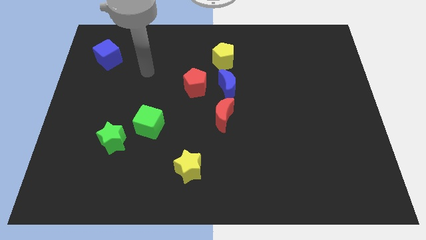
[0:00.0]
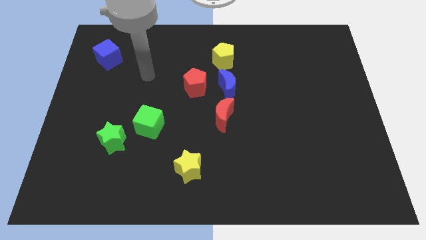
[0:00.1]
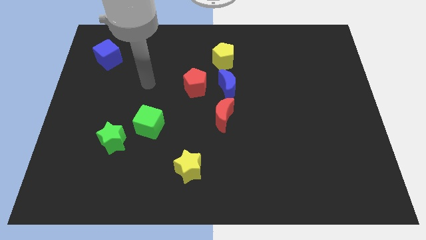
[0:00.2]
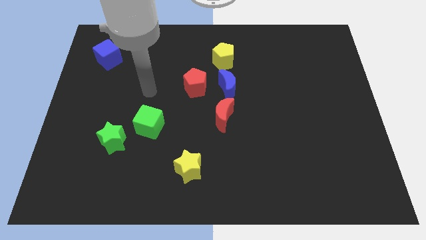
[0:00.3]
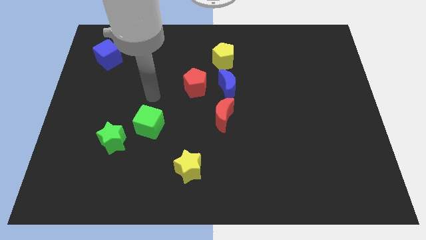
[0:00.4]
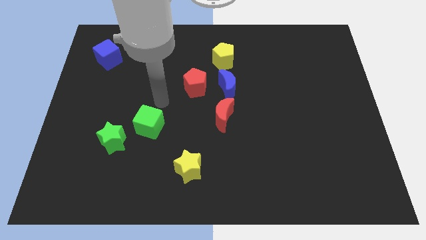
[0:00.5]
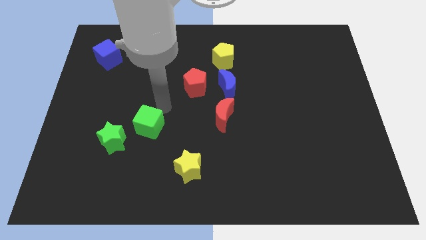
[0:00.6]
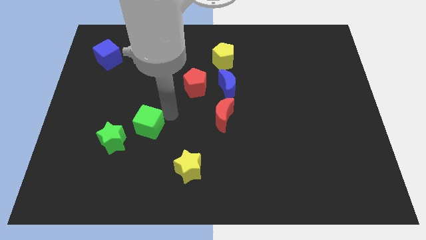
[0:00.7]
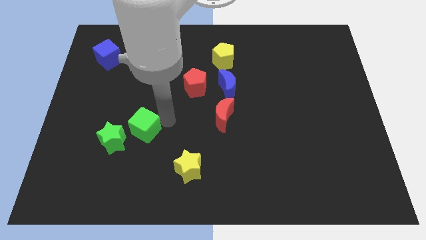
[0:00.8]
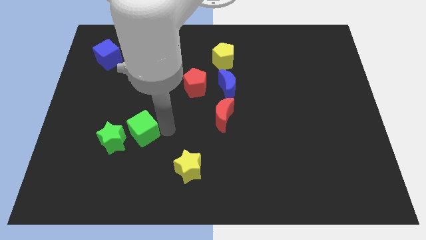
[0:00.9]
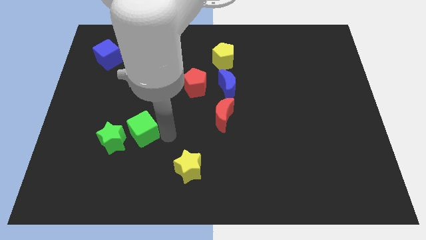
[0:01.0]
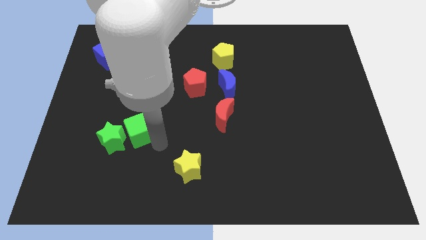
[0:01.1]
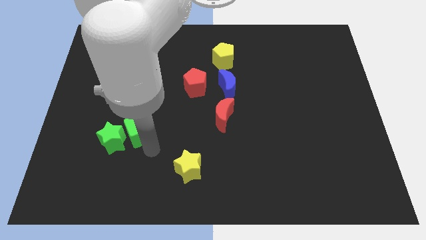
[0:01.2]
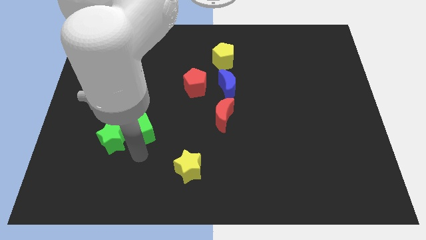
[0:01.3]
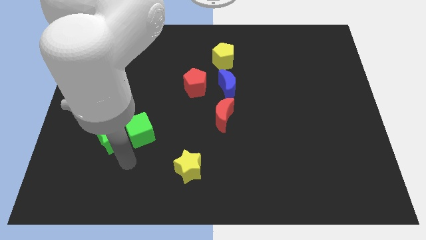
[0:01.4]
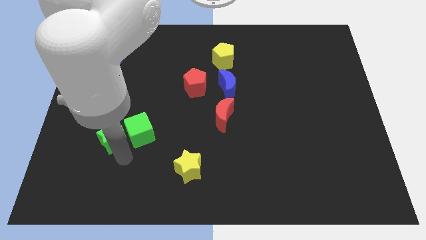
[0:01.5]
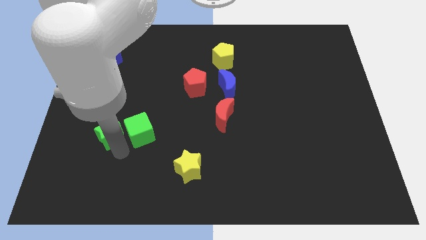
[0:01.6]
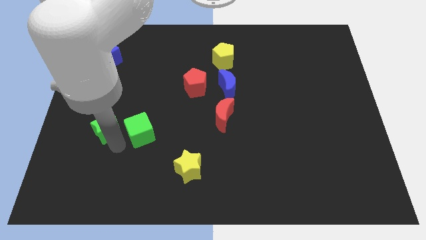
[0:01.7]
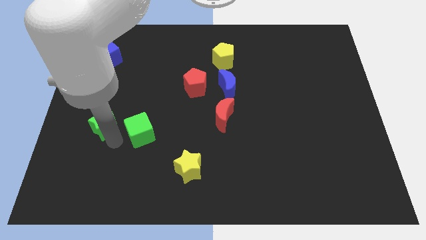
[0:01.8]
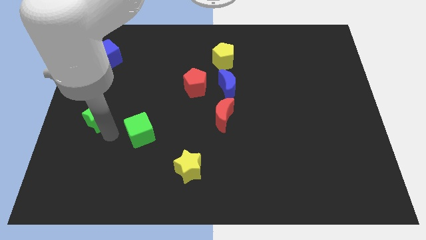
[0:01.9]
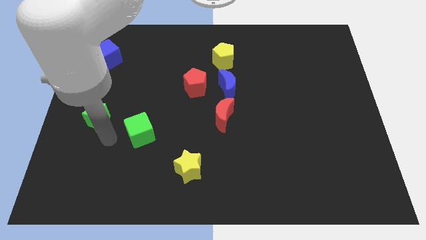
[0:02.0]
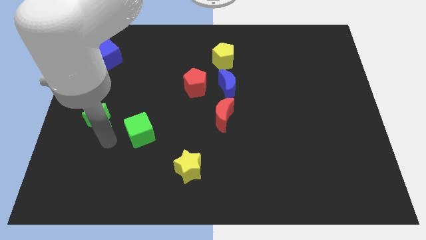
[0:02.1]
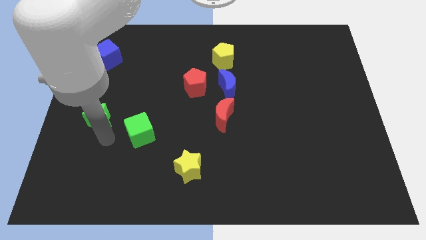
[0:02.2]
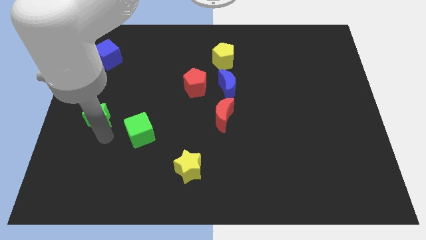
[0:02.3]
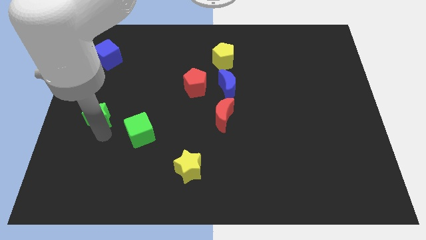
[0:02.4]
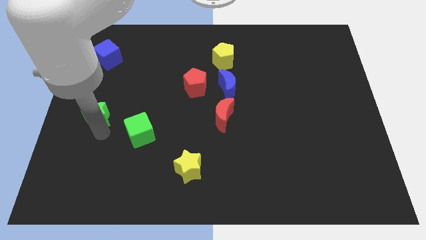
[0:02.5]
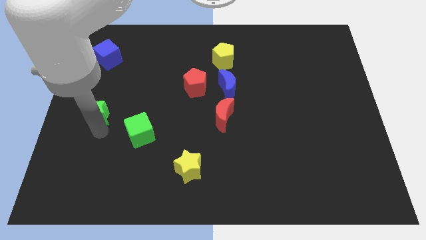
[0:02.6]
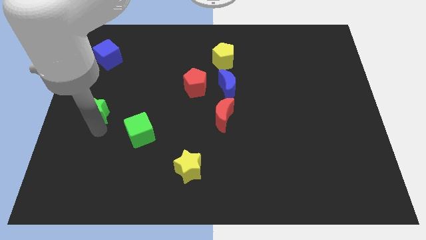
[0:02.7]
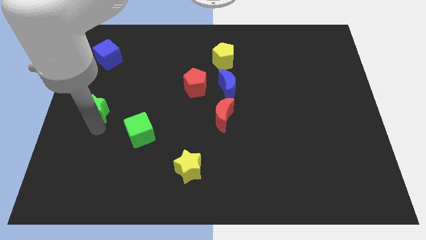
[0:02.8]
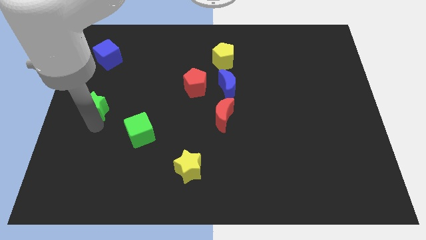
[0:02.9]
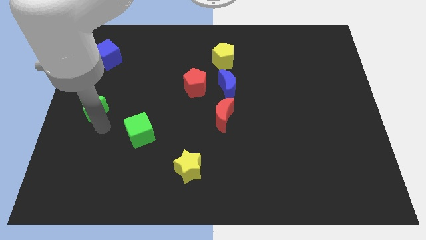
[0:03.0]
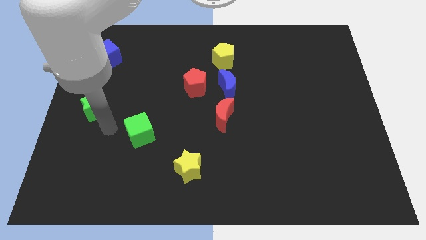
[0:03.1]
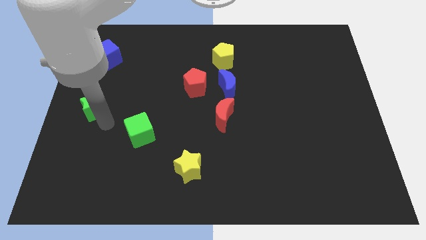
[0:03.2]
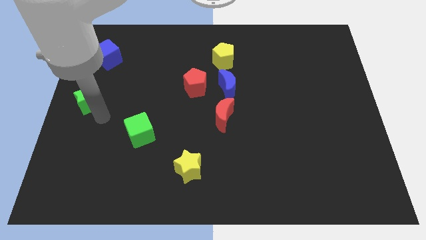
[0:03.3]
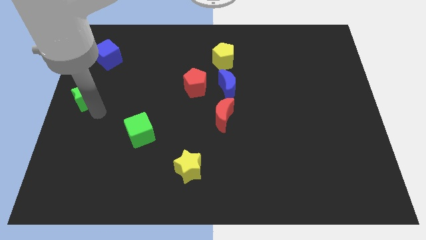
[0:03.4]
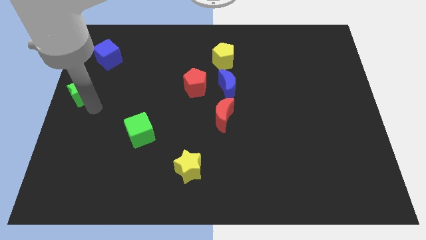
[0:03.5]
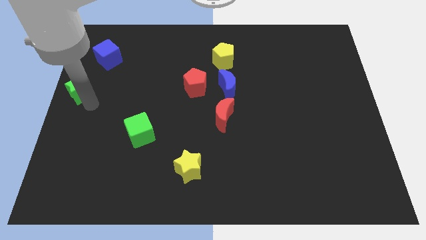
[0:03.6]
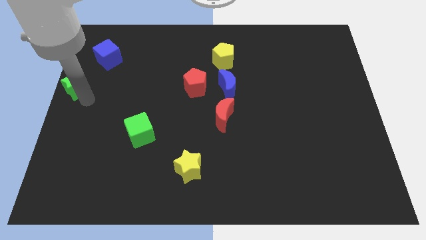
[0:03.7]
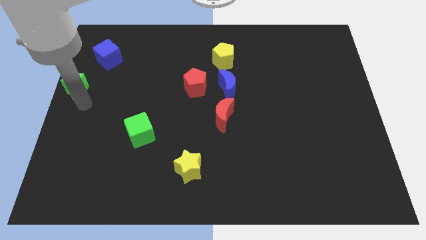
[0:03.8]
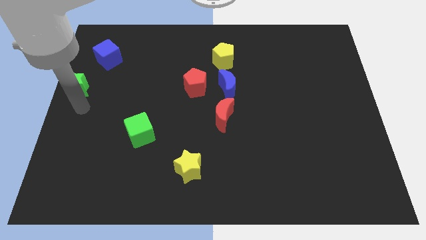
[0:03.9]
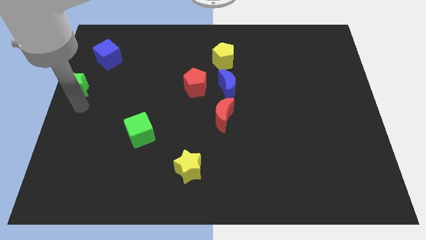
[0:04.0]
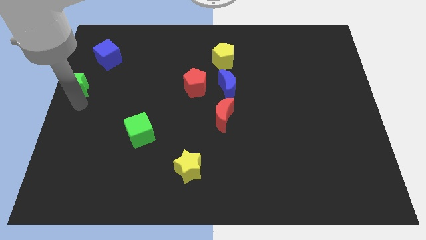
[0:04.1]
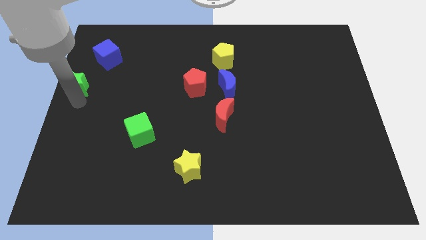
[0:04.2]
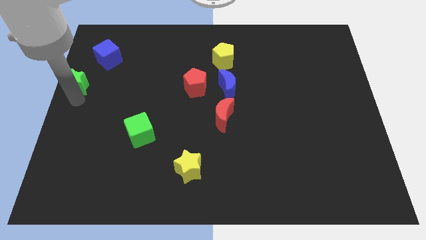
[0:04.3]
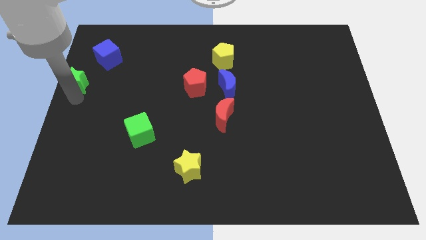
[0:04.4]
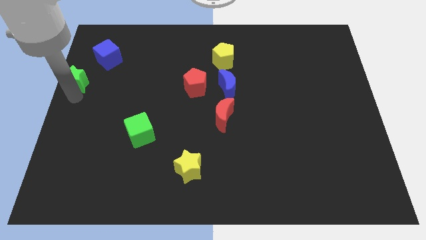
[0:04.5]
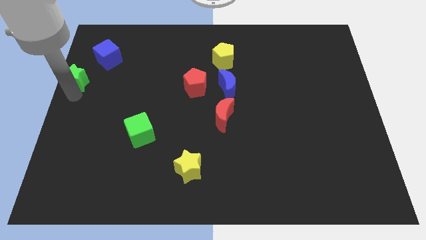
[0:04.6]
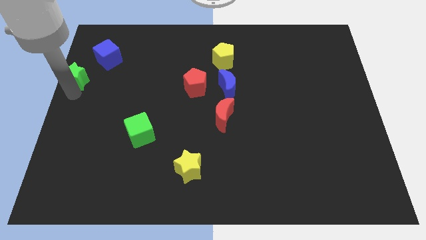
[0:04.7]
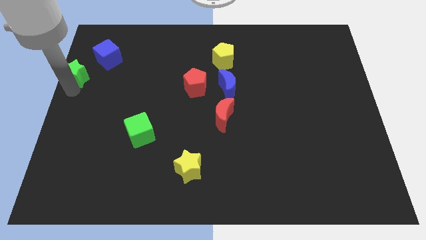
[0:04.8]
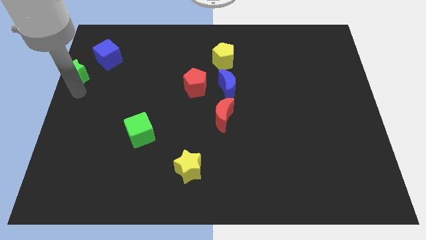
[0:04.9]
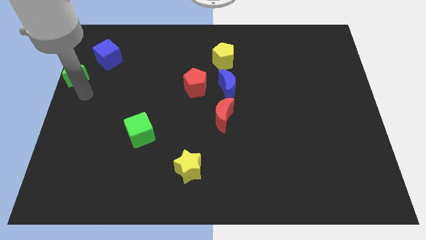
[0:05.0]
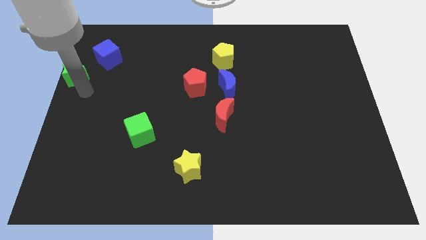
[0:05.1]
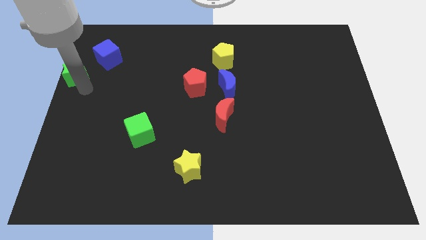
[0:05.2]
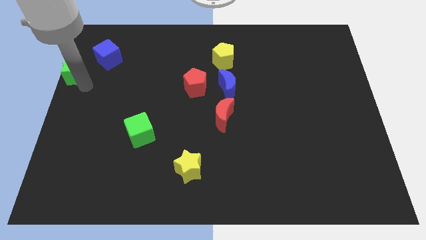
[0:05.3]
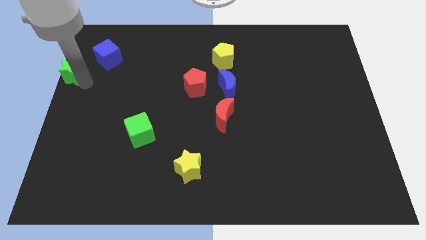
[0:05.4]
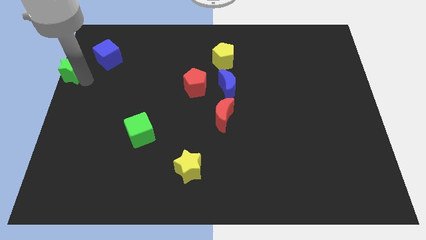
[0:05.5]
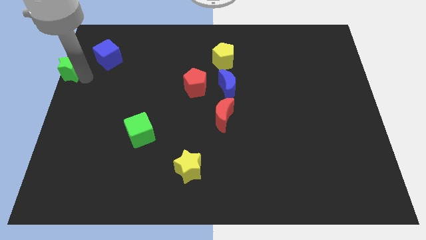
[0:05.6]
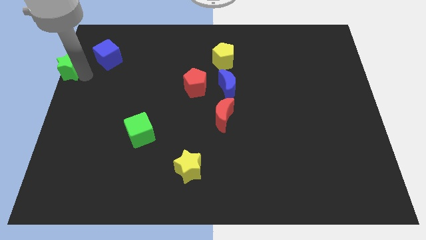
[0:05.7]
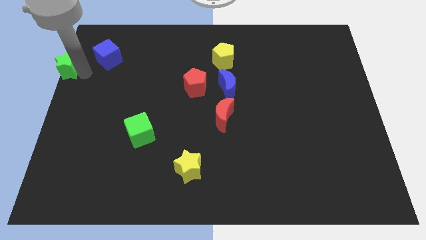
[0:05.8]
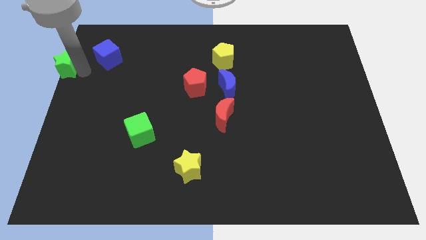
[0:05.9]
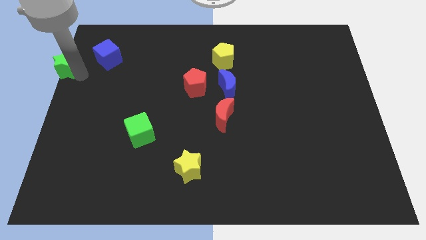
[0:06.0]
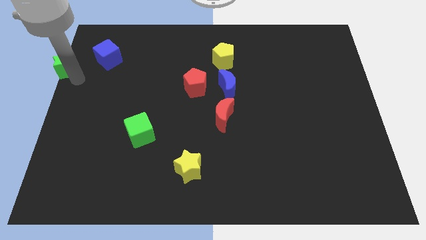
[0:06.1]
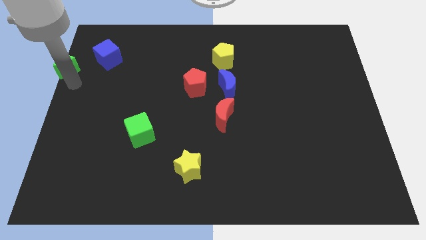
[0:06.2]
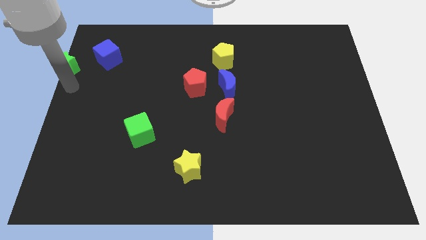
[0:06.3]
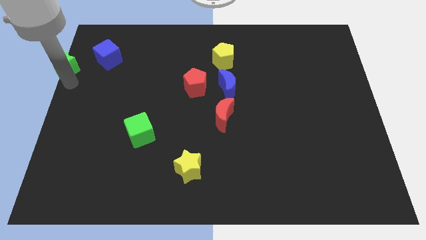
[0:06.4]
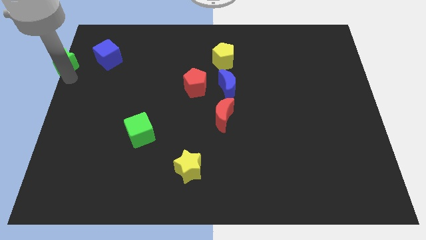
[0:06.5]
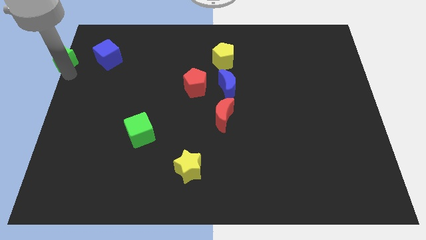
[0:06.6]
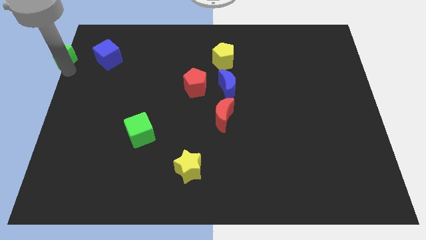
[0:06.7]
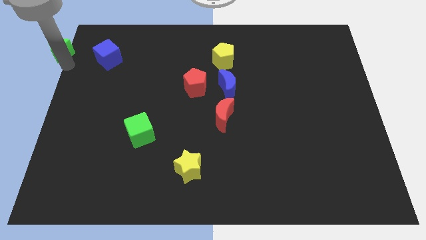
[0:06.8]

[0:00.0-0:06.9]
slide the green star to the top left corner
